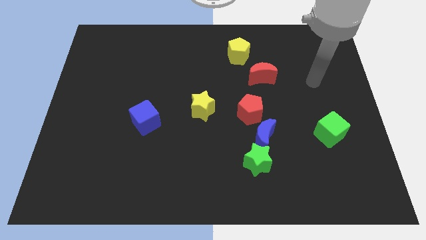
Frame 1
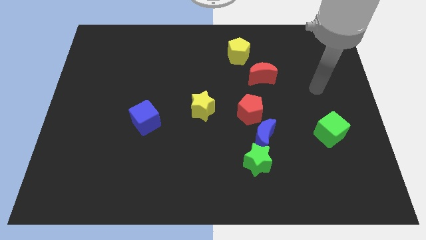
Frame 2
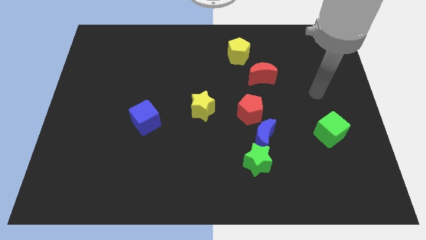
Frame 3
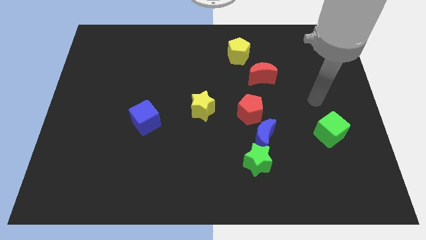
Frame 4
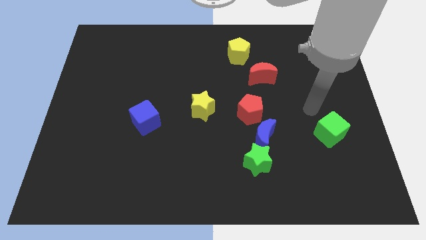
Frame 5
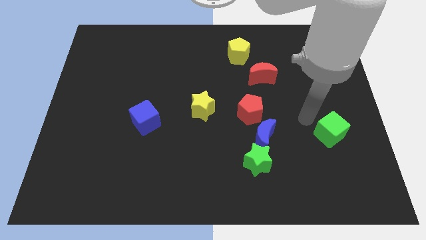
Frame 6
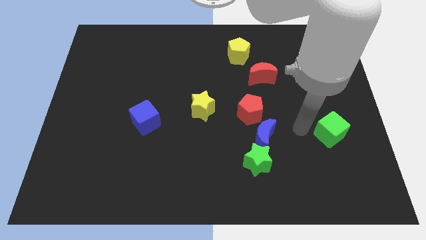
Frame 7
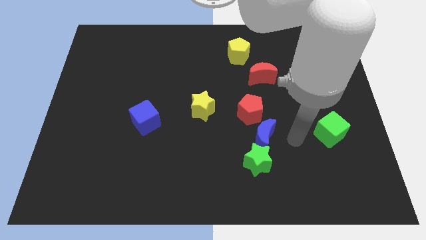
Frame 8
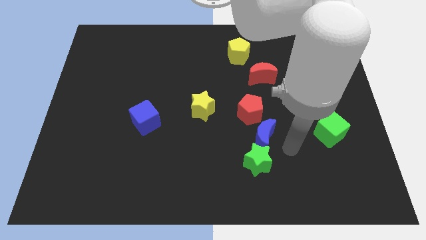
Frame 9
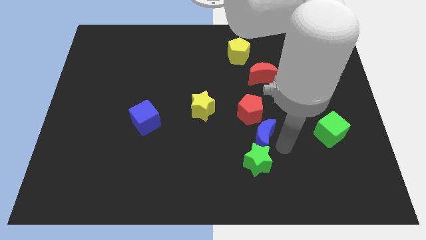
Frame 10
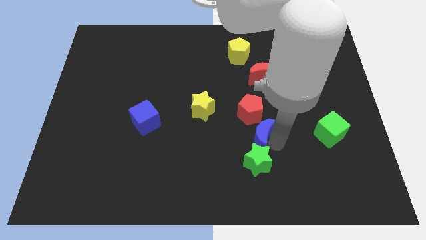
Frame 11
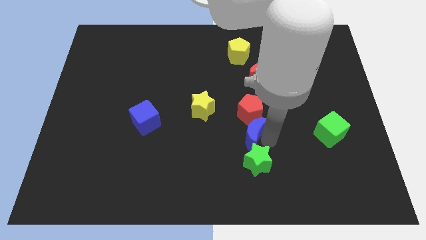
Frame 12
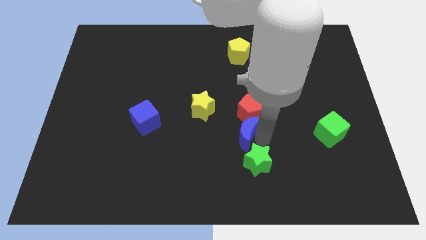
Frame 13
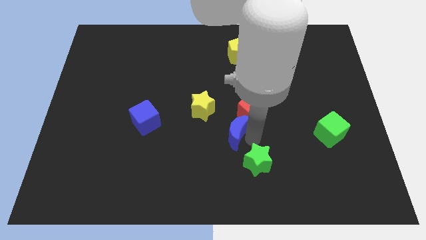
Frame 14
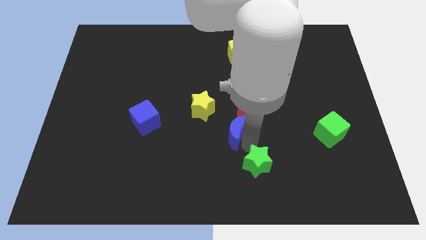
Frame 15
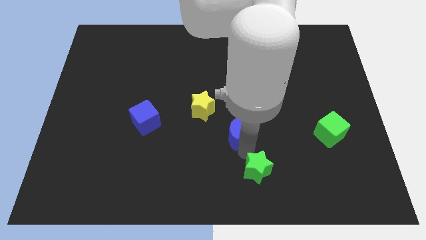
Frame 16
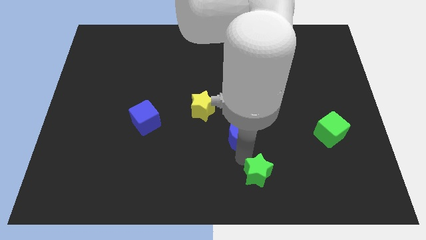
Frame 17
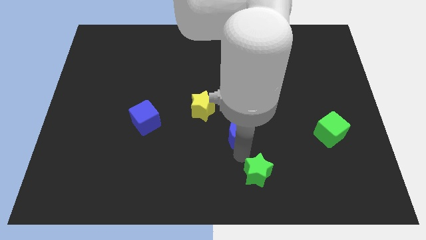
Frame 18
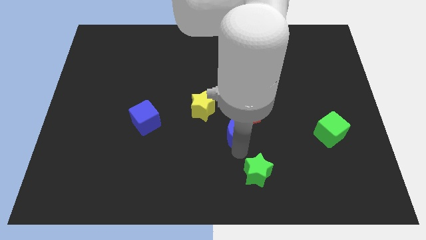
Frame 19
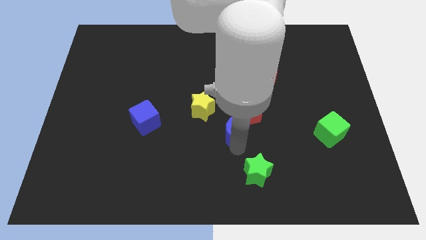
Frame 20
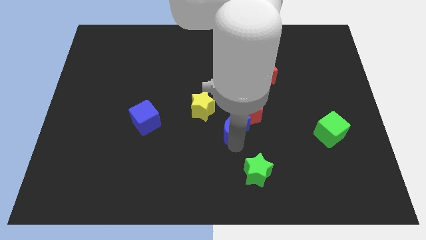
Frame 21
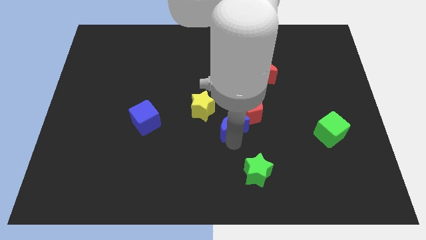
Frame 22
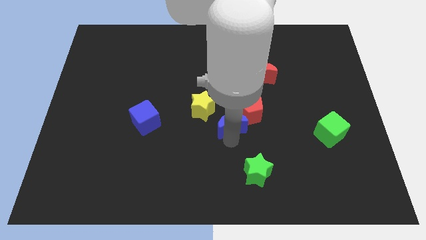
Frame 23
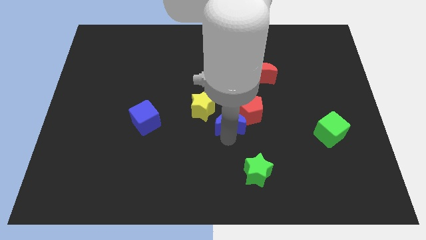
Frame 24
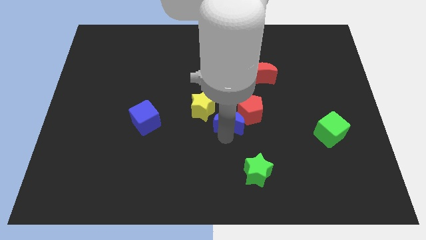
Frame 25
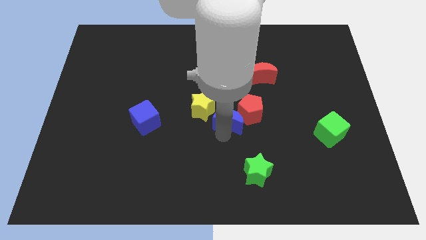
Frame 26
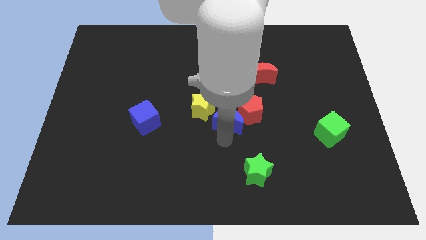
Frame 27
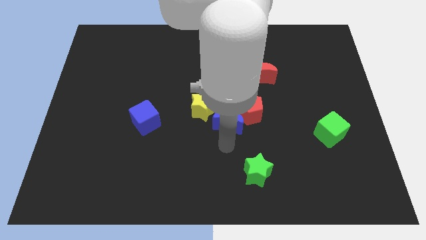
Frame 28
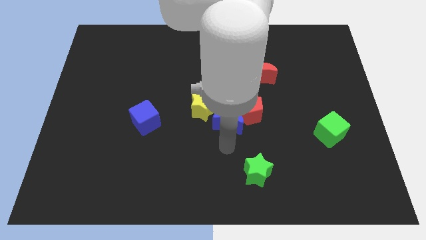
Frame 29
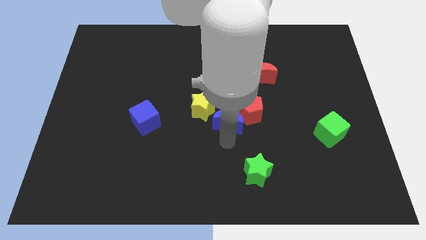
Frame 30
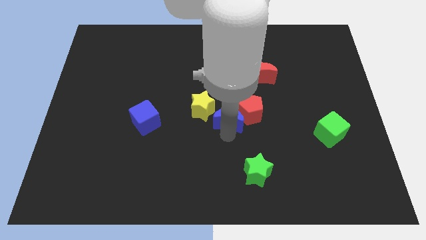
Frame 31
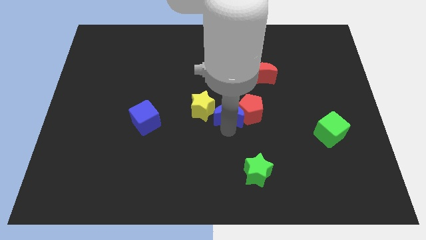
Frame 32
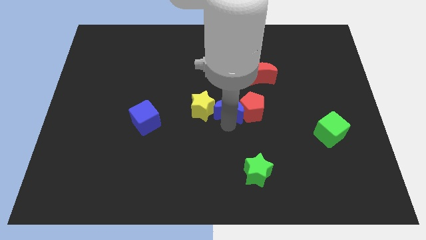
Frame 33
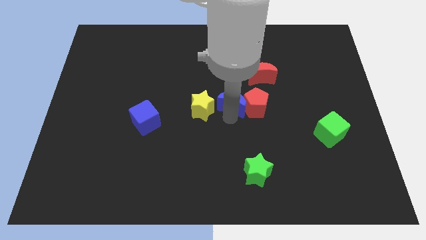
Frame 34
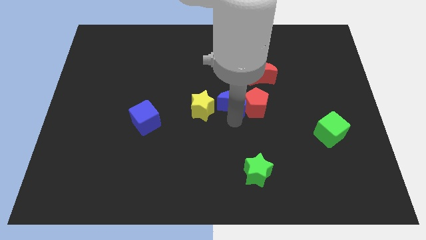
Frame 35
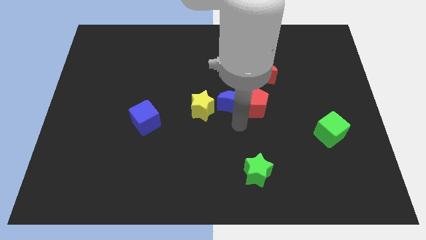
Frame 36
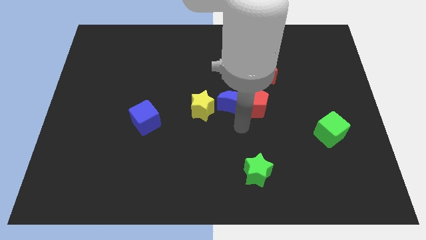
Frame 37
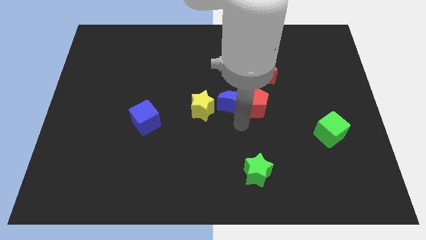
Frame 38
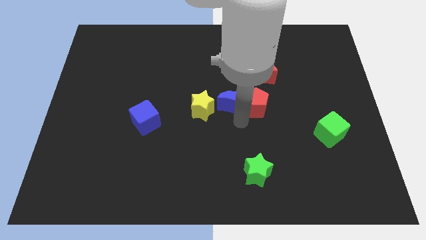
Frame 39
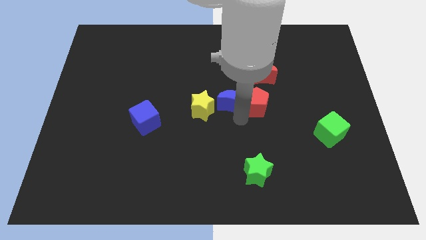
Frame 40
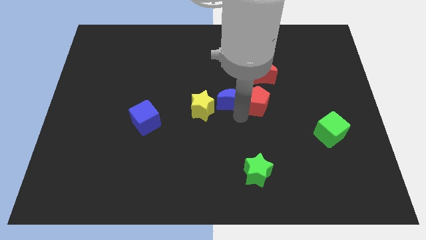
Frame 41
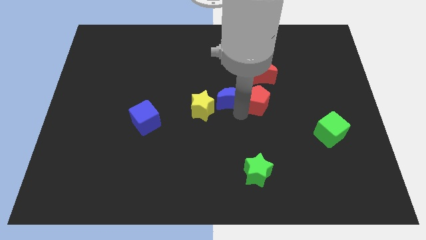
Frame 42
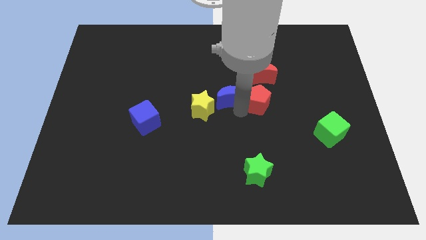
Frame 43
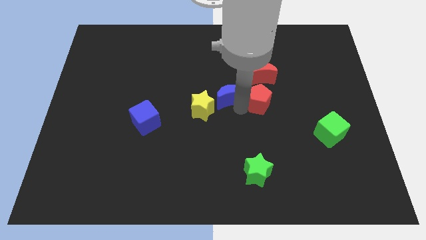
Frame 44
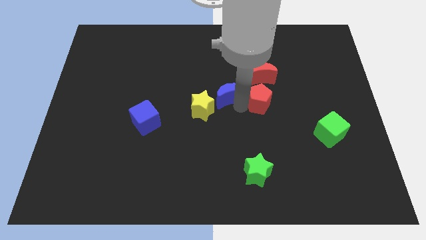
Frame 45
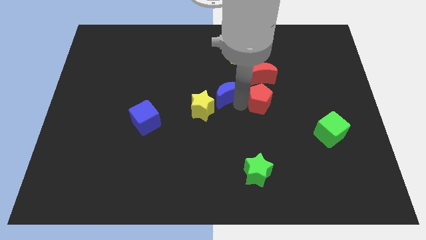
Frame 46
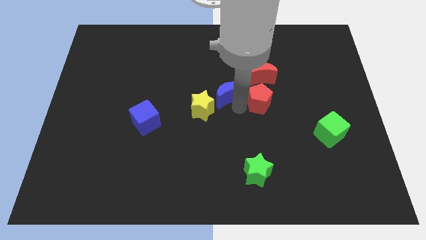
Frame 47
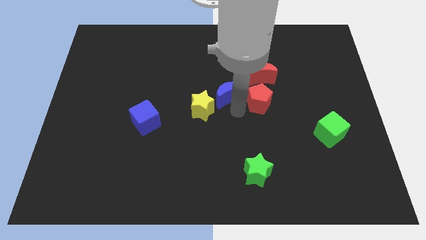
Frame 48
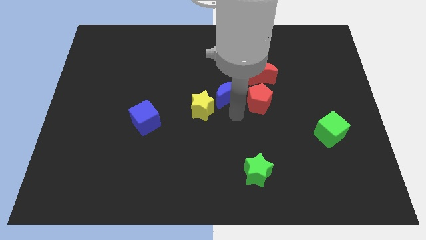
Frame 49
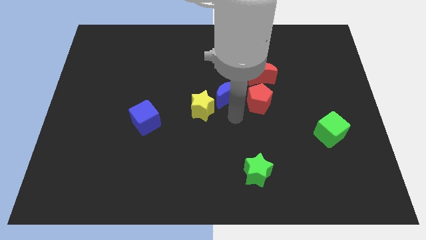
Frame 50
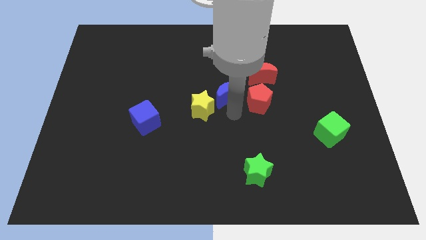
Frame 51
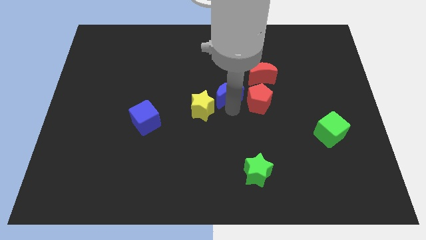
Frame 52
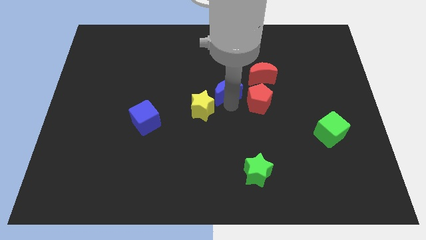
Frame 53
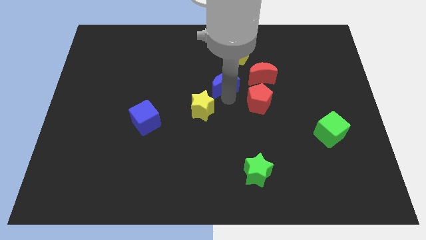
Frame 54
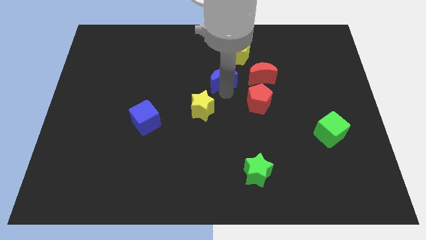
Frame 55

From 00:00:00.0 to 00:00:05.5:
push the blue moon to the bottom left side of the yellow pentagon
